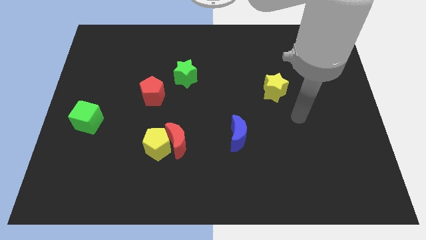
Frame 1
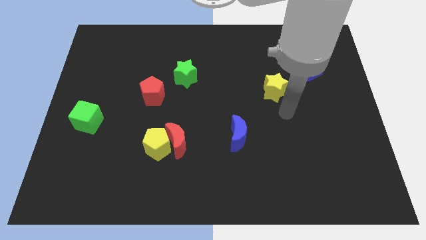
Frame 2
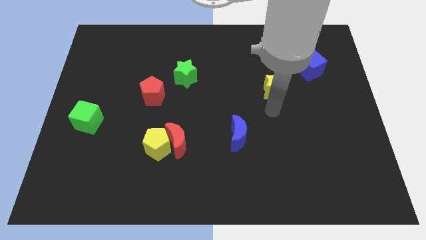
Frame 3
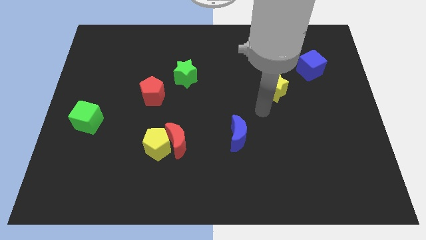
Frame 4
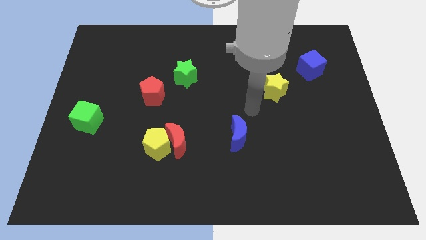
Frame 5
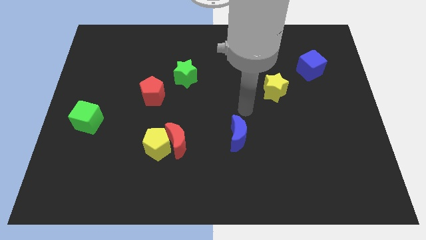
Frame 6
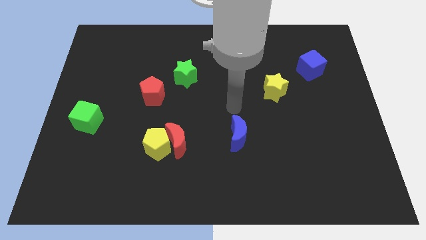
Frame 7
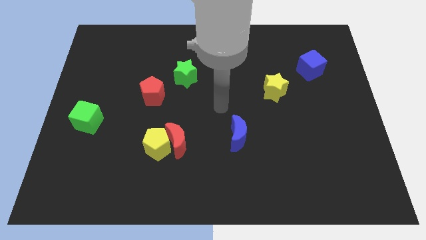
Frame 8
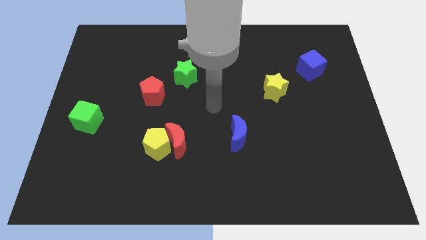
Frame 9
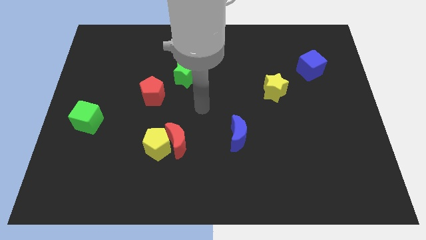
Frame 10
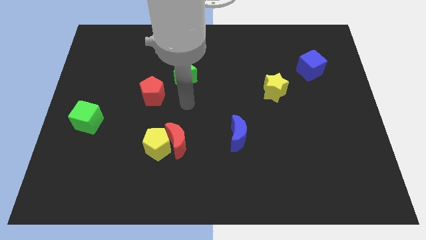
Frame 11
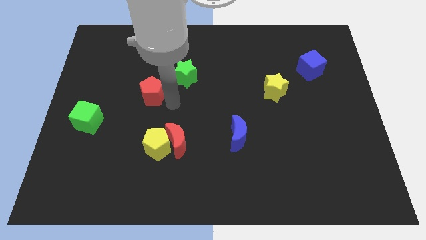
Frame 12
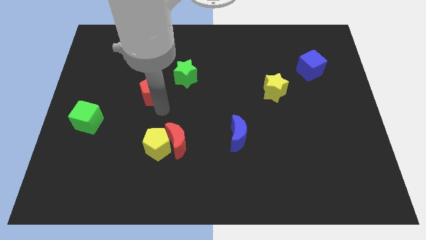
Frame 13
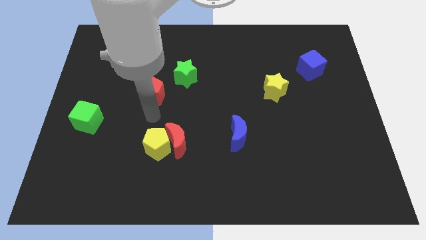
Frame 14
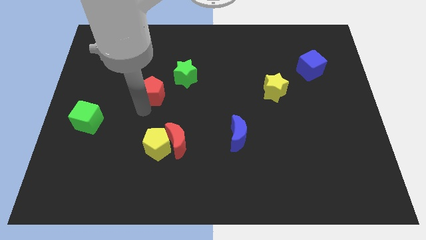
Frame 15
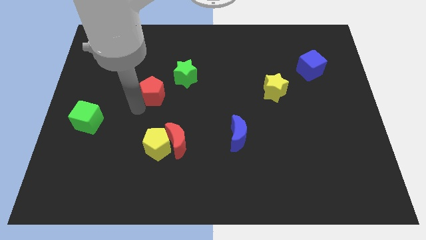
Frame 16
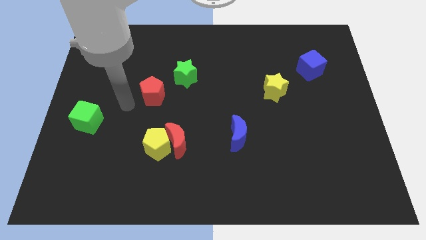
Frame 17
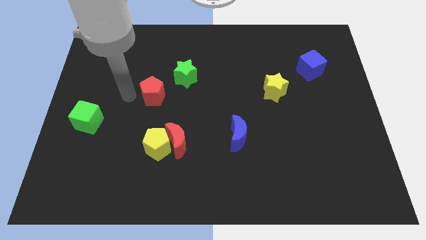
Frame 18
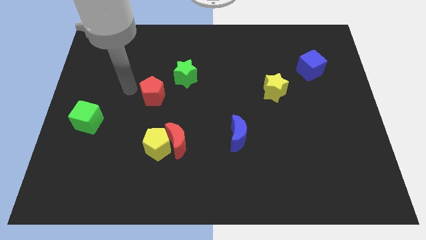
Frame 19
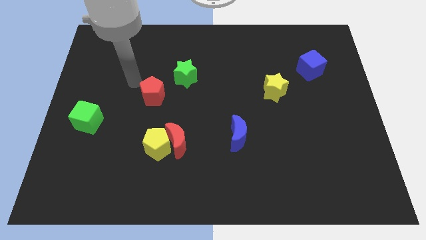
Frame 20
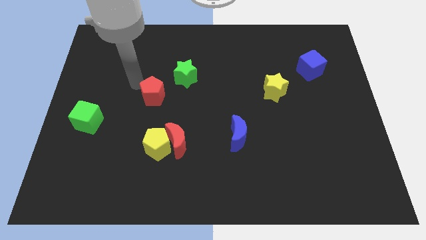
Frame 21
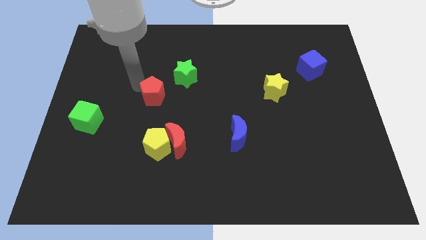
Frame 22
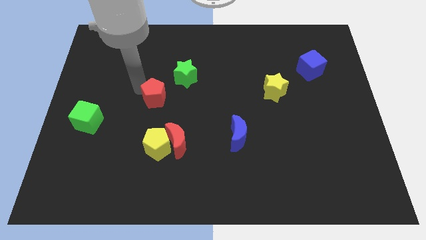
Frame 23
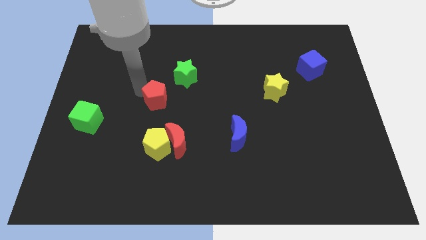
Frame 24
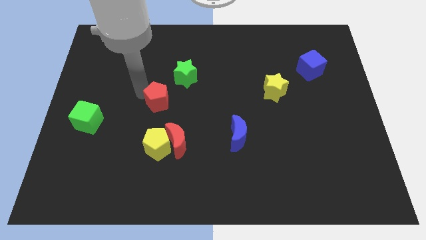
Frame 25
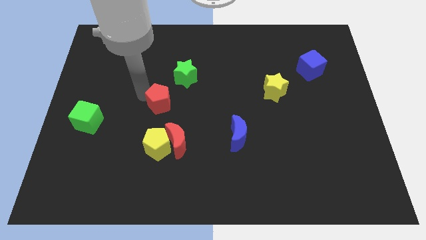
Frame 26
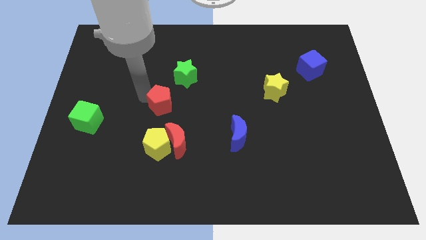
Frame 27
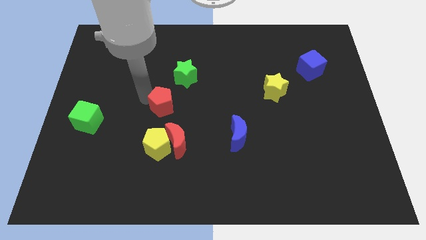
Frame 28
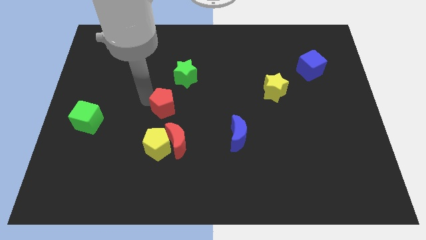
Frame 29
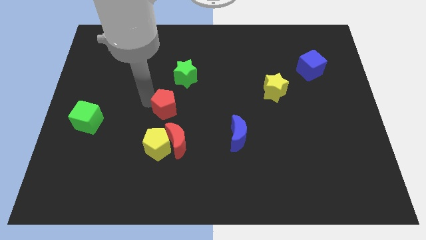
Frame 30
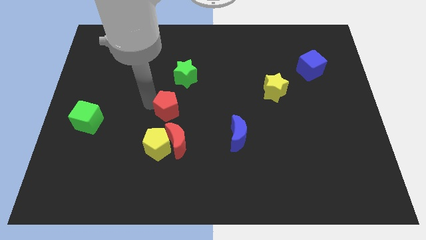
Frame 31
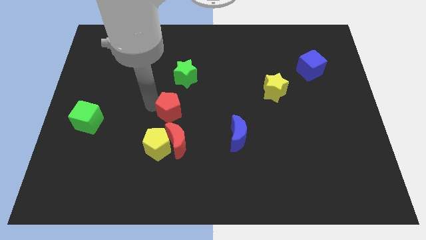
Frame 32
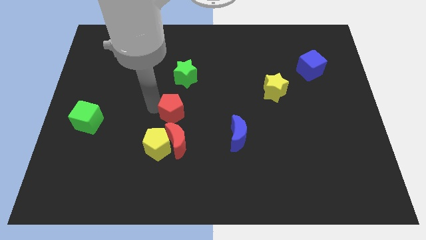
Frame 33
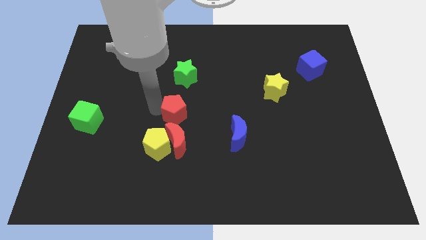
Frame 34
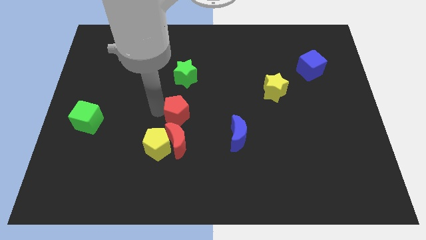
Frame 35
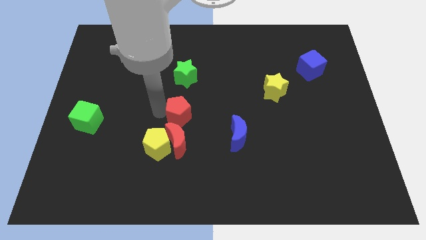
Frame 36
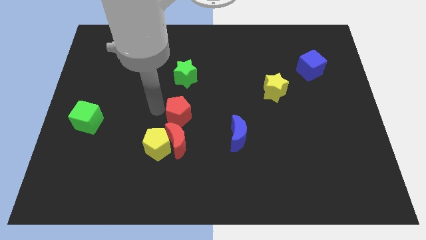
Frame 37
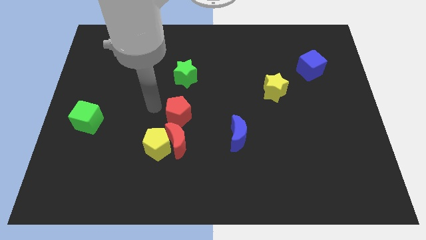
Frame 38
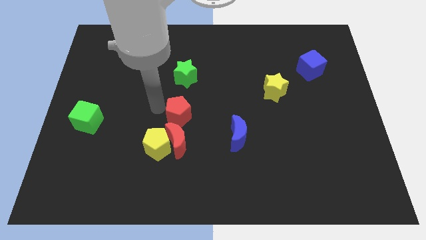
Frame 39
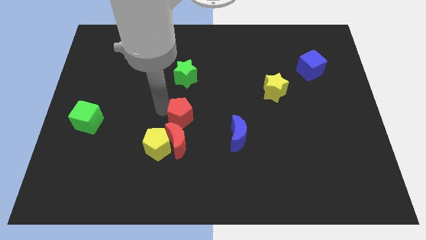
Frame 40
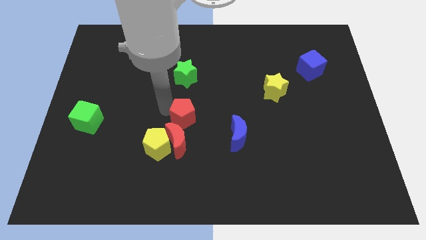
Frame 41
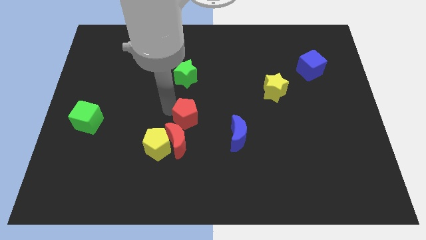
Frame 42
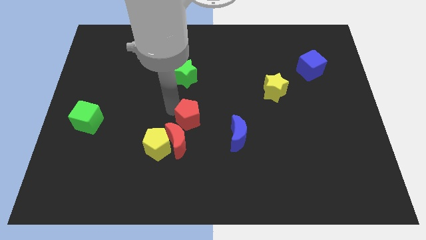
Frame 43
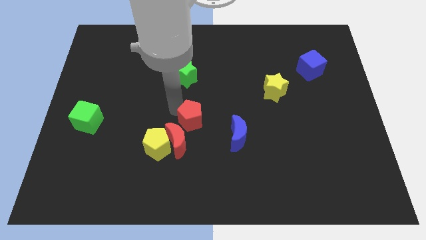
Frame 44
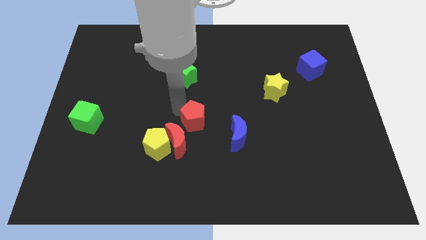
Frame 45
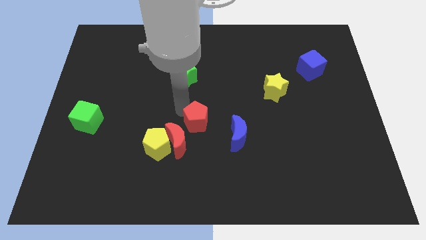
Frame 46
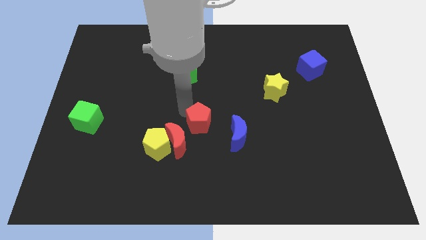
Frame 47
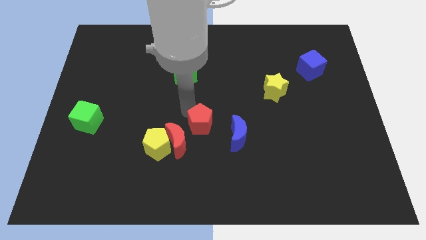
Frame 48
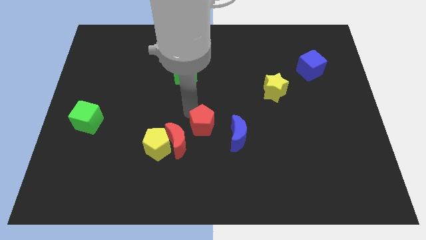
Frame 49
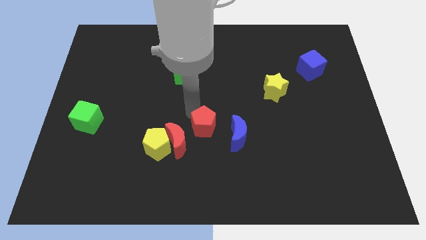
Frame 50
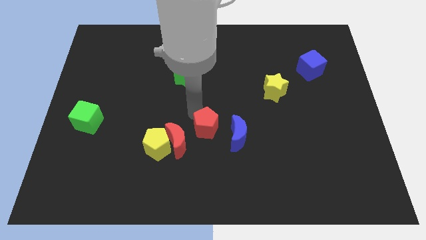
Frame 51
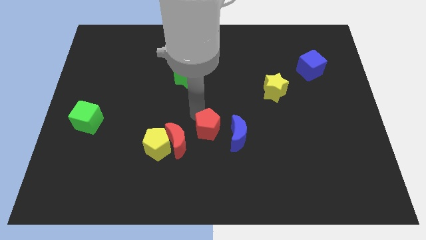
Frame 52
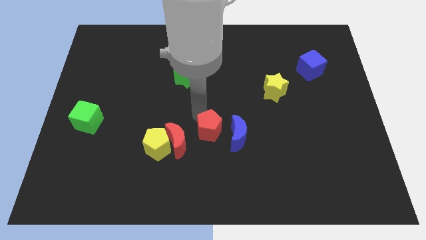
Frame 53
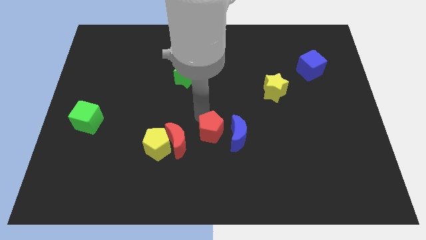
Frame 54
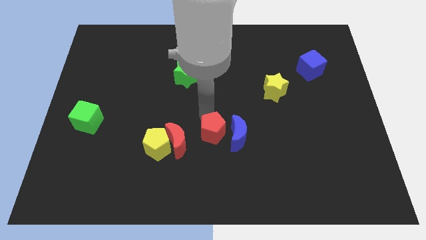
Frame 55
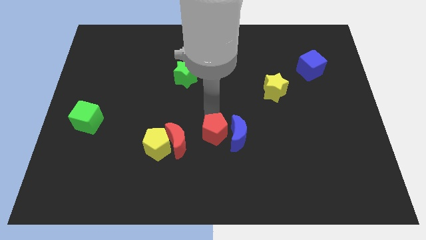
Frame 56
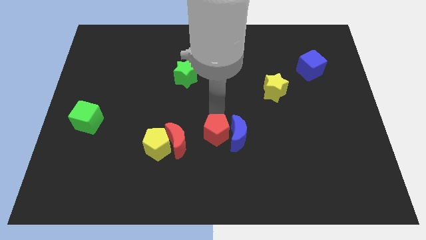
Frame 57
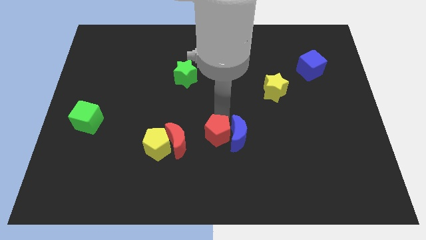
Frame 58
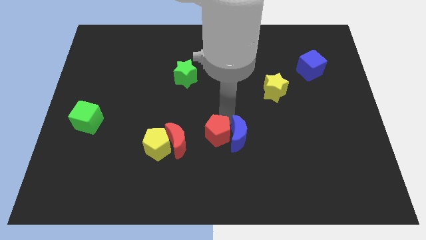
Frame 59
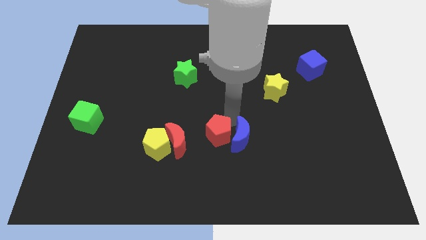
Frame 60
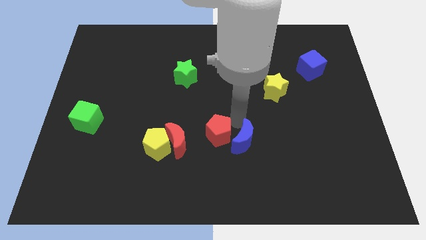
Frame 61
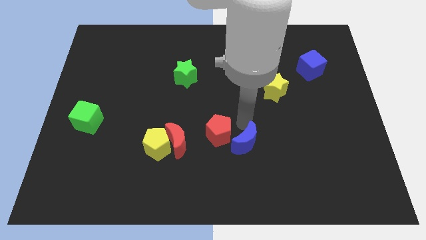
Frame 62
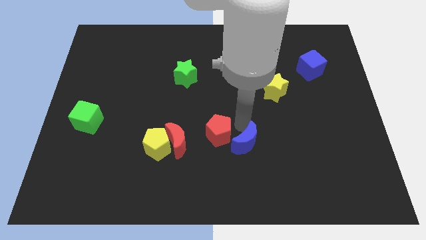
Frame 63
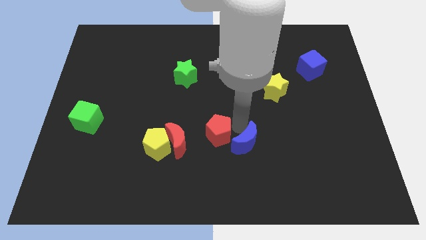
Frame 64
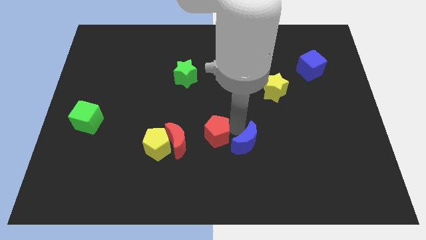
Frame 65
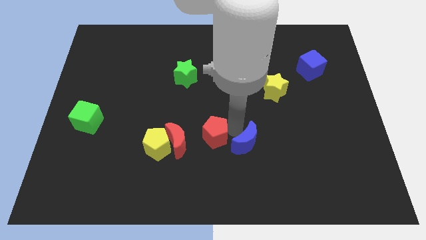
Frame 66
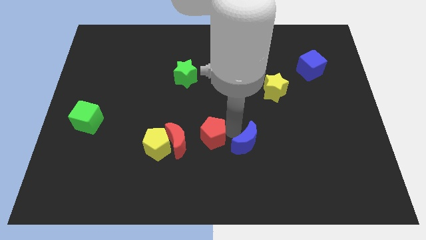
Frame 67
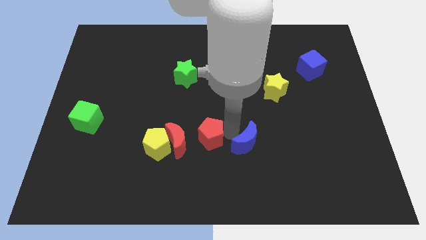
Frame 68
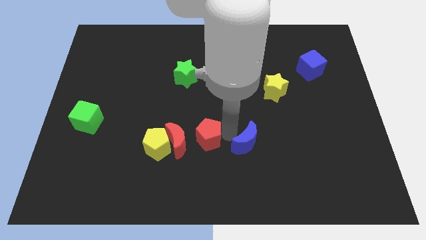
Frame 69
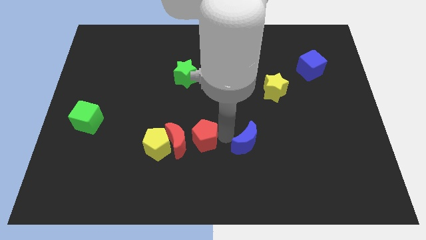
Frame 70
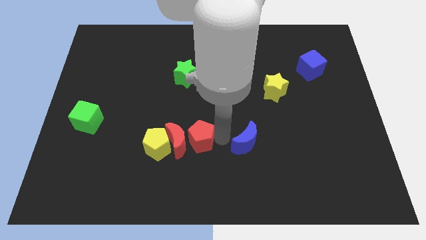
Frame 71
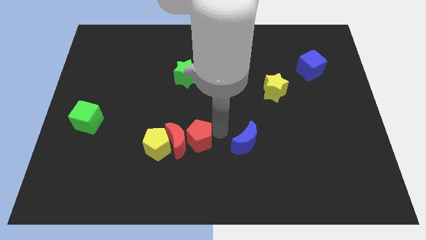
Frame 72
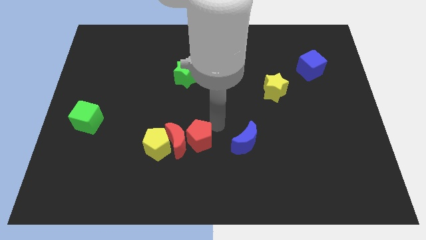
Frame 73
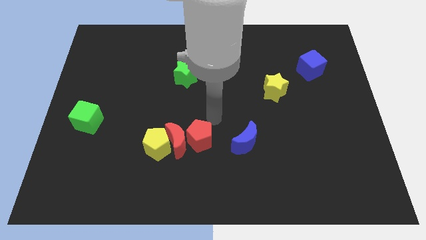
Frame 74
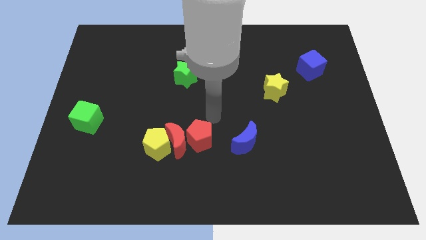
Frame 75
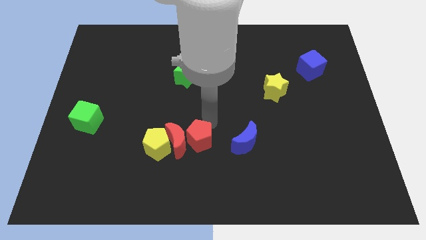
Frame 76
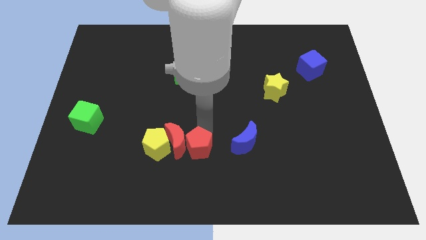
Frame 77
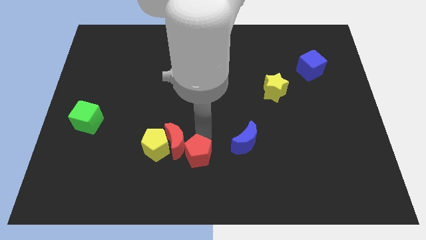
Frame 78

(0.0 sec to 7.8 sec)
push the red pentagon diagonally down and to the right of the yellow pentagon
